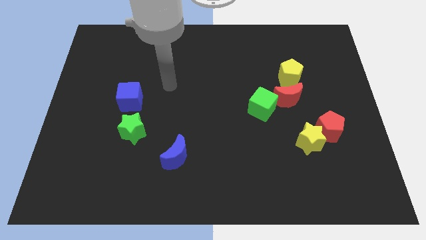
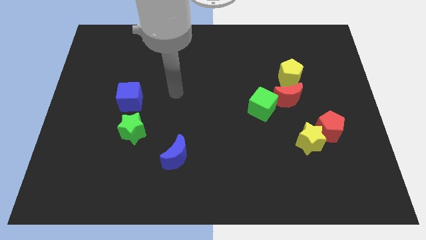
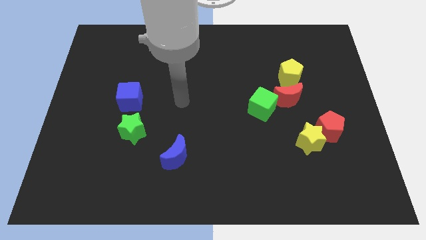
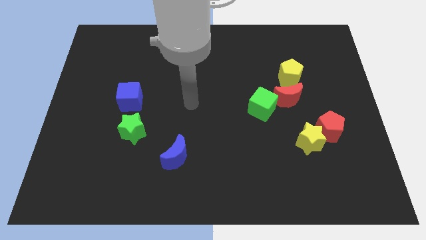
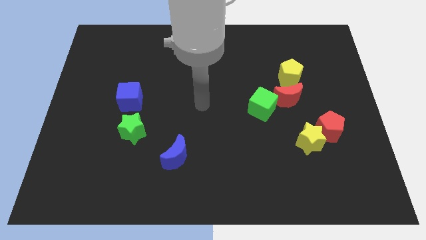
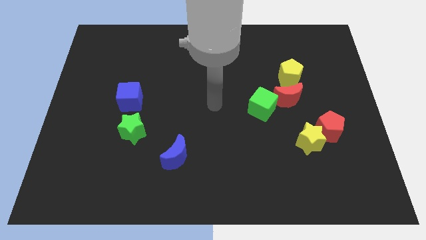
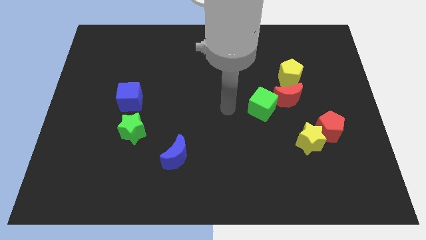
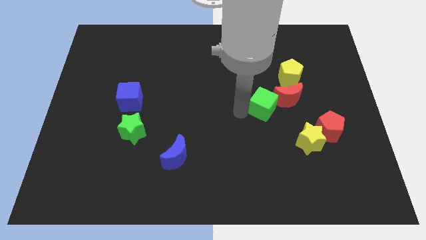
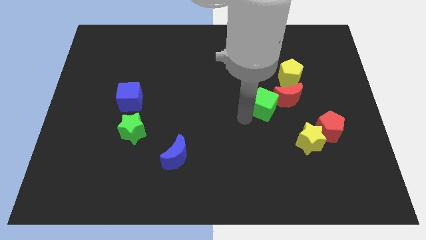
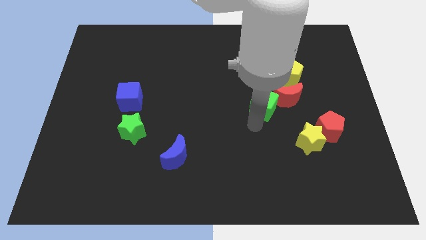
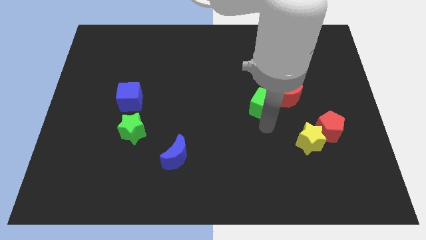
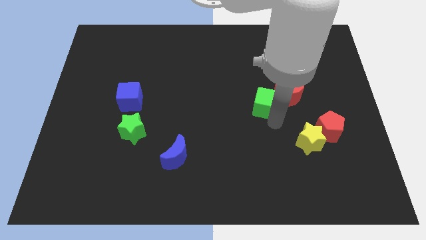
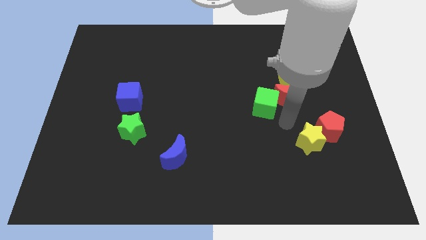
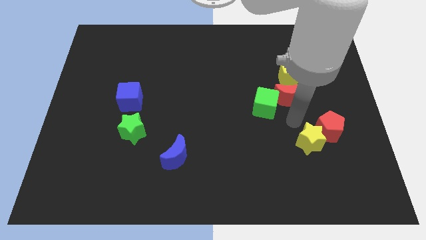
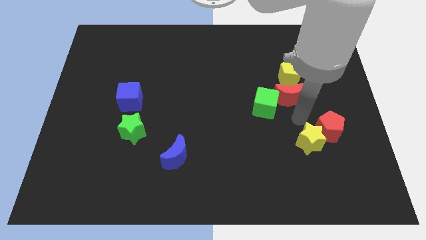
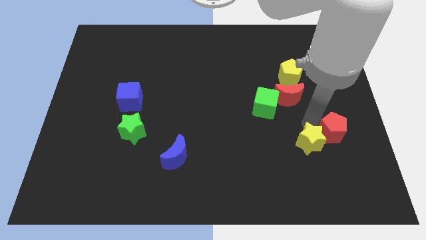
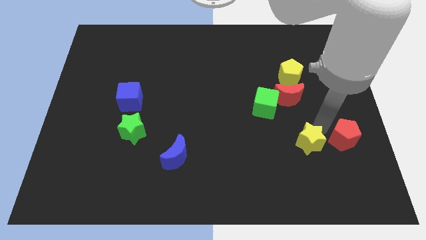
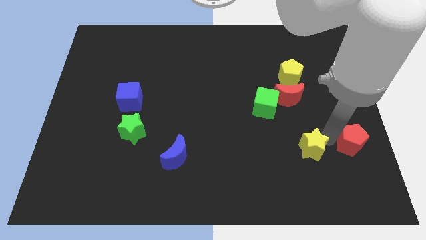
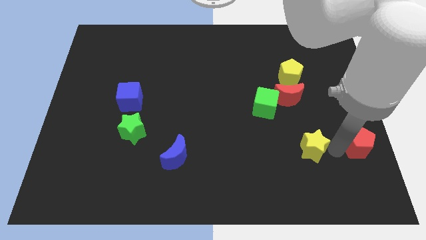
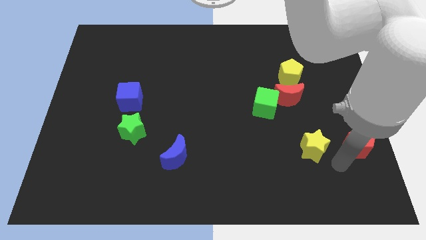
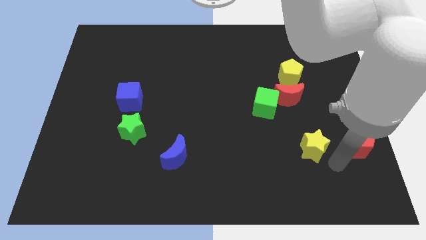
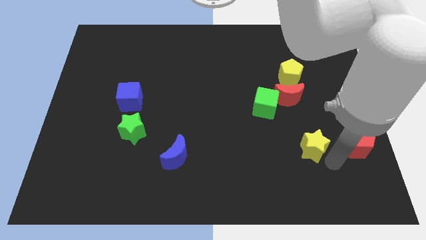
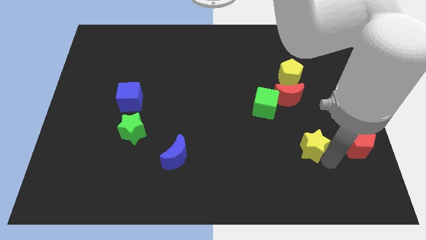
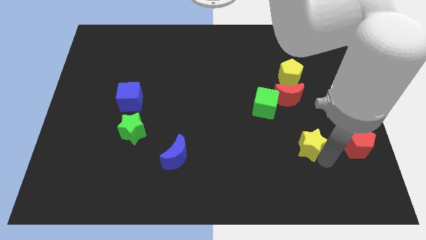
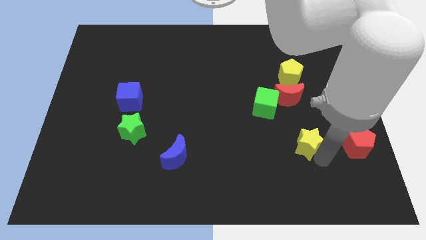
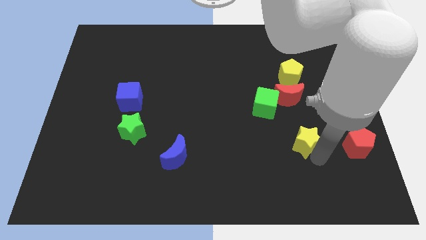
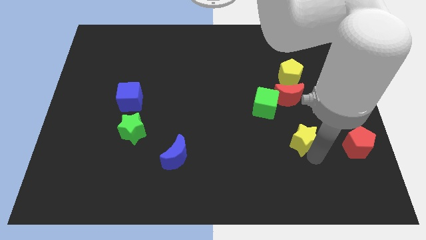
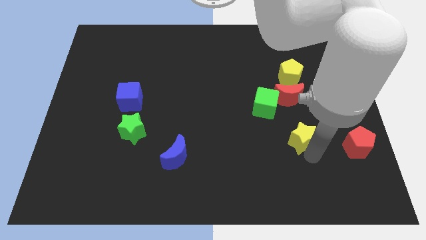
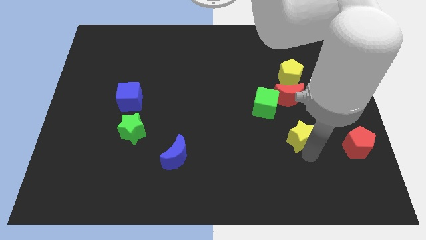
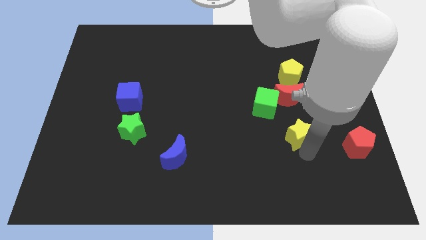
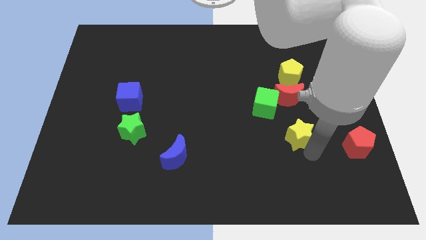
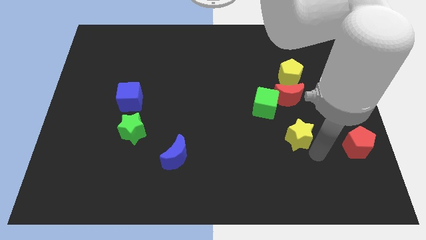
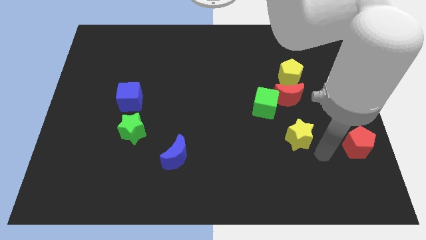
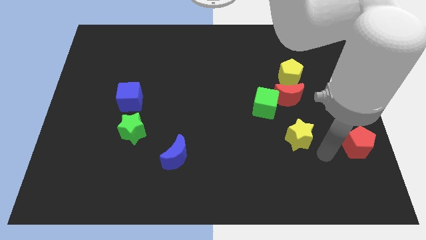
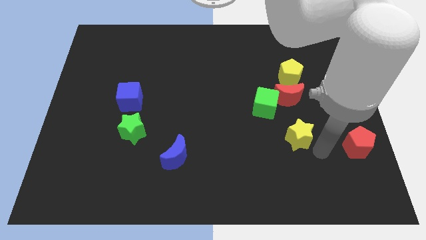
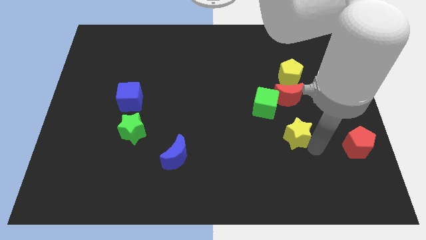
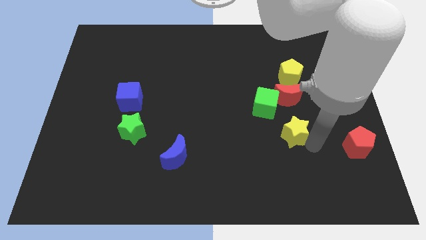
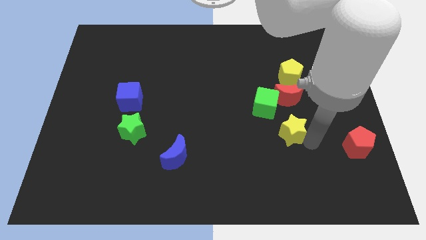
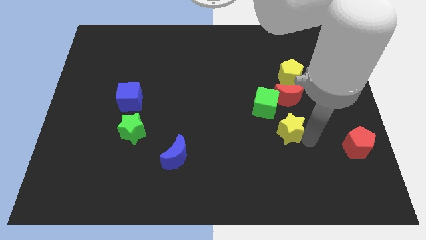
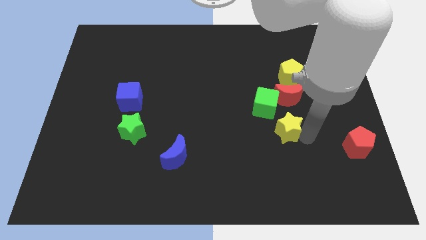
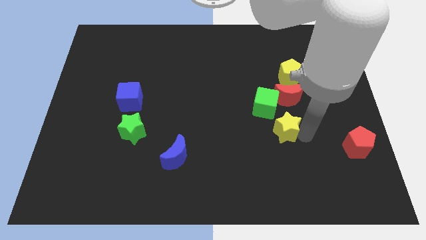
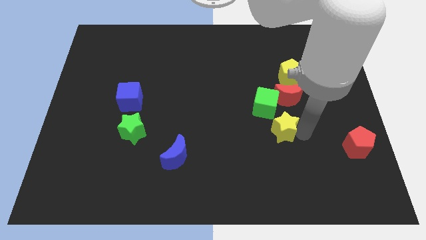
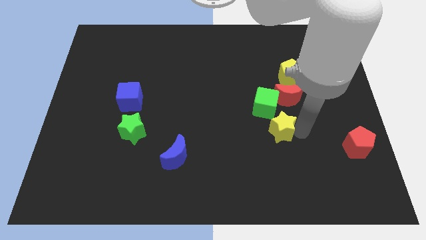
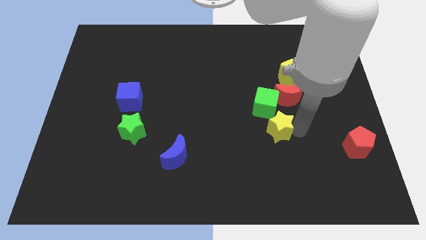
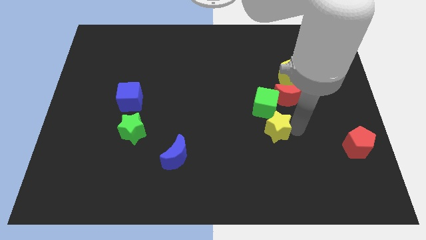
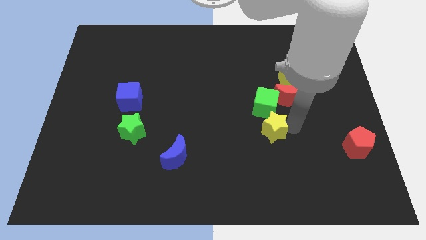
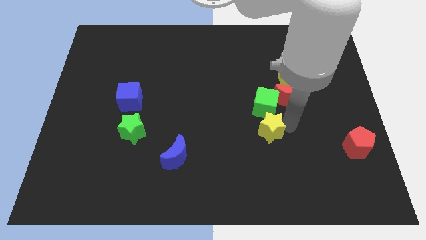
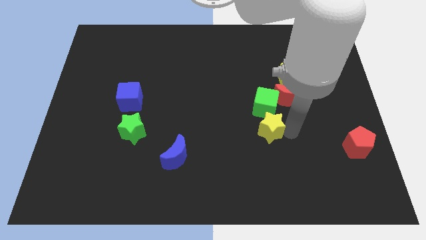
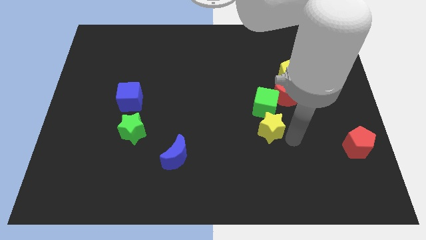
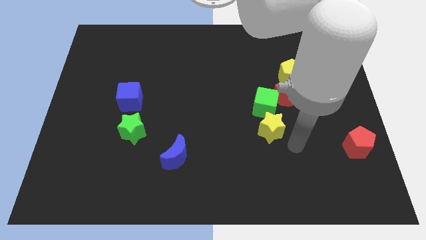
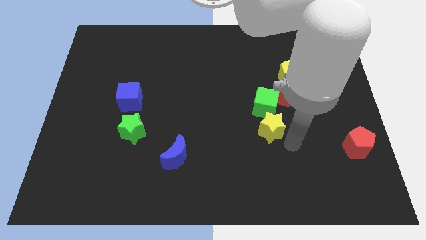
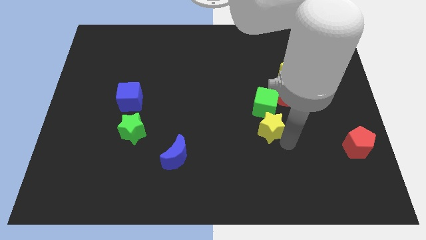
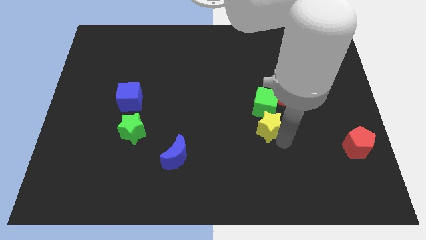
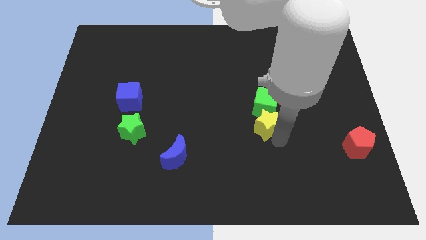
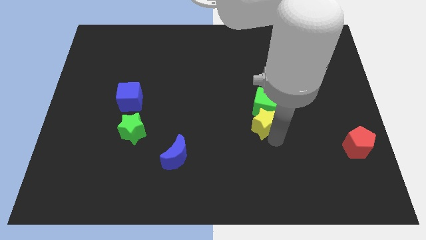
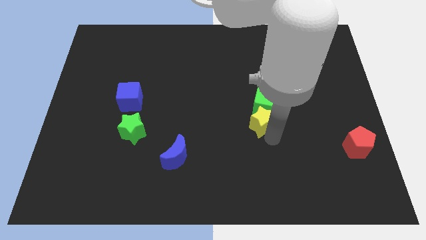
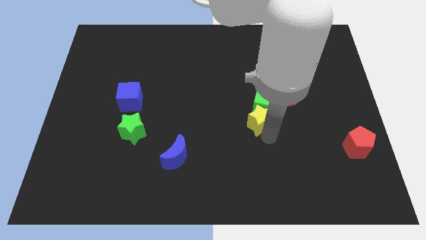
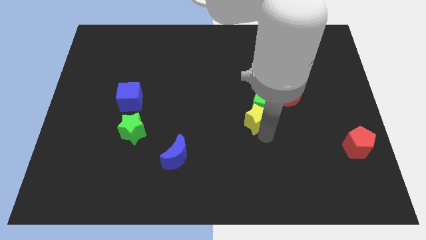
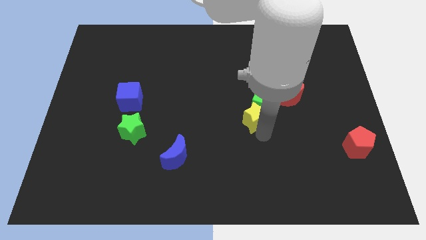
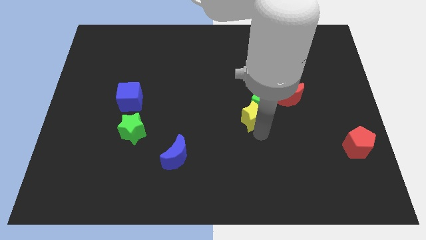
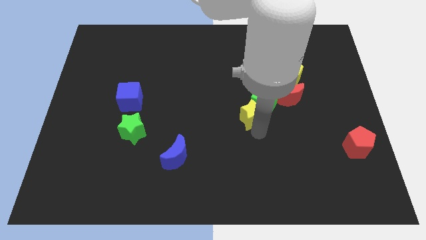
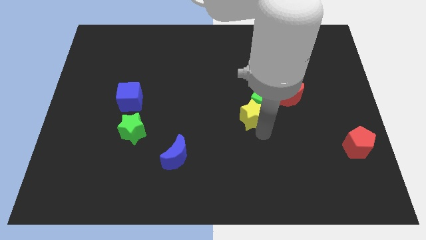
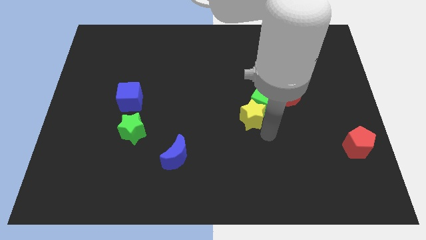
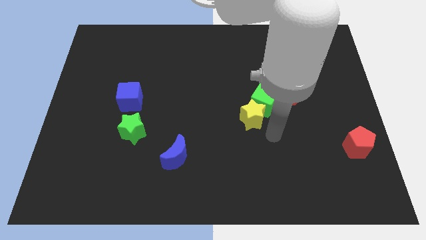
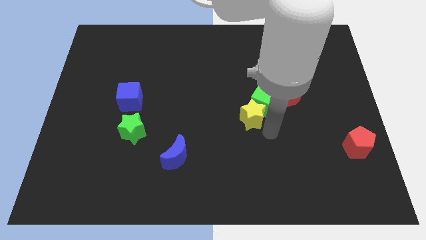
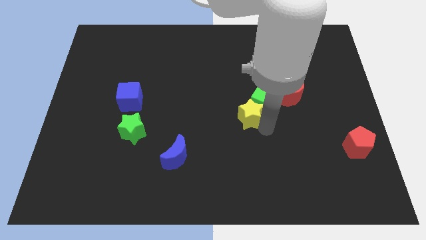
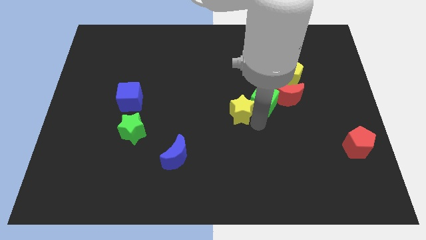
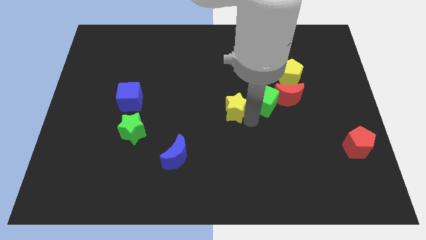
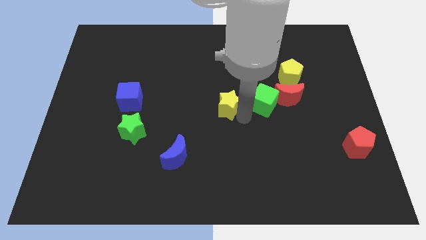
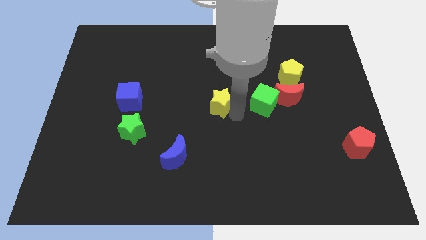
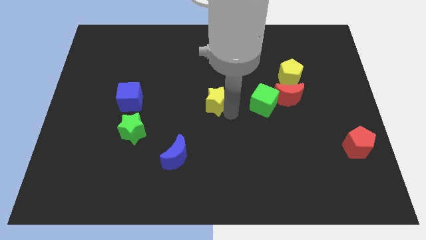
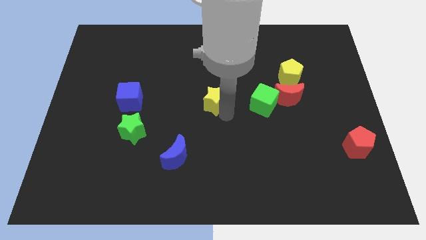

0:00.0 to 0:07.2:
push the yellow star up and left

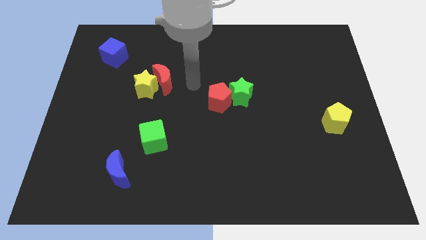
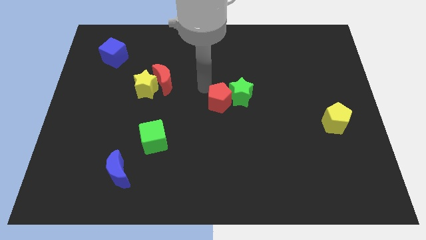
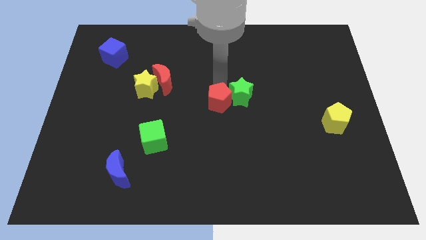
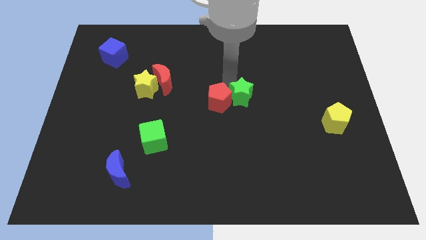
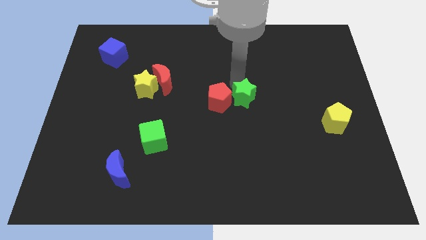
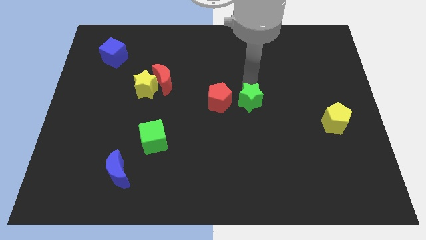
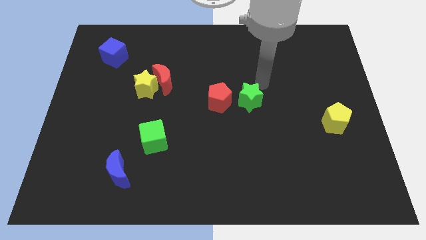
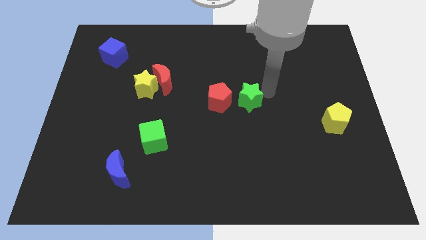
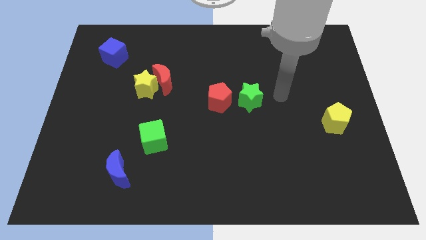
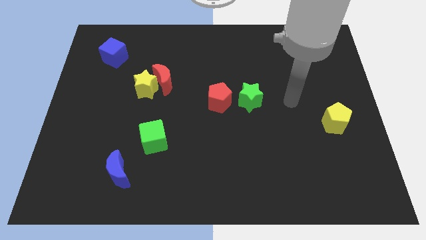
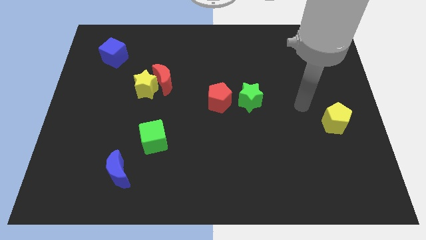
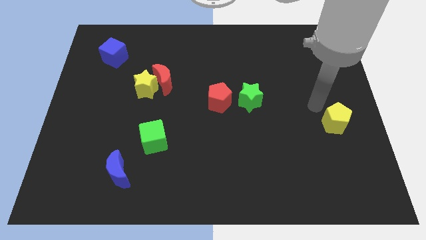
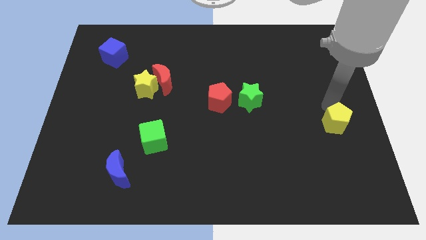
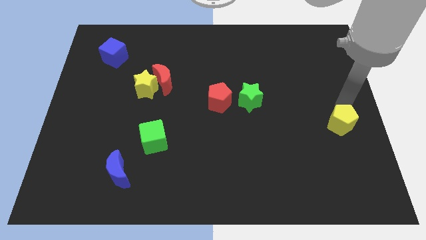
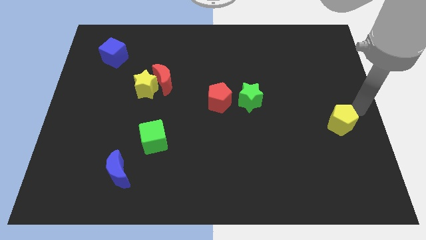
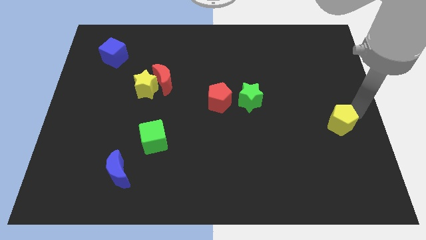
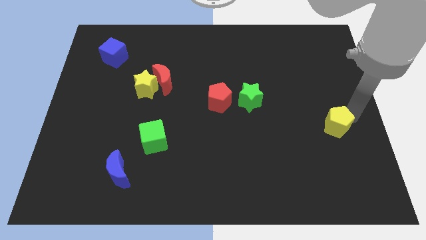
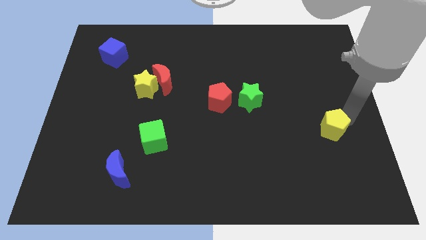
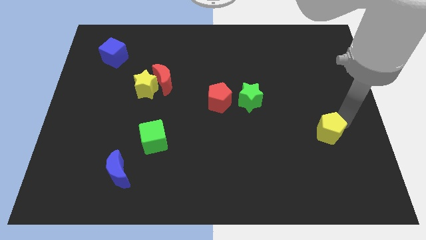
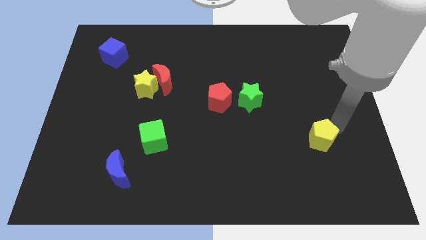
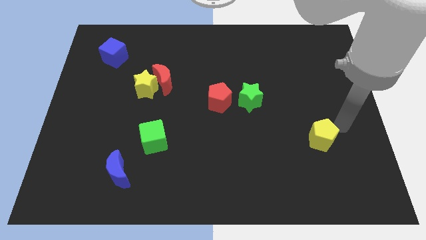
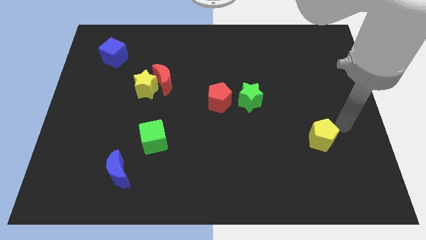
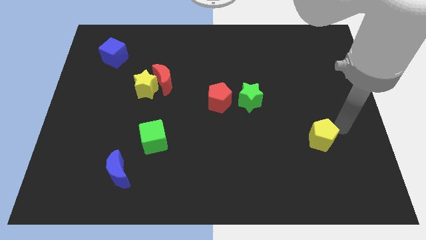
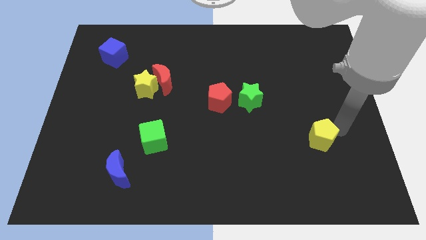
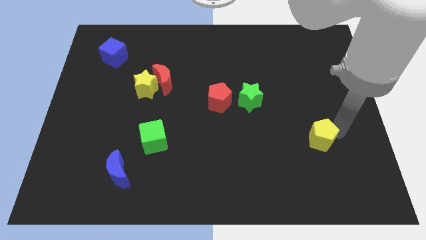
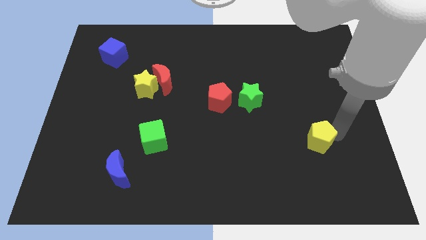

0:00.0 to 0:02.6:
slightly push the yellow pentagon down and then to the left
